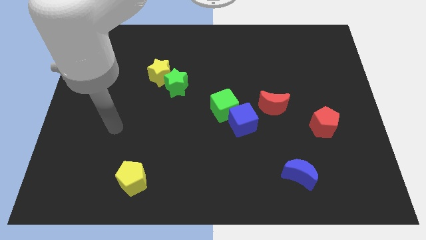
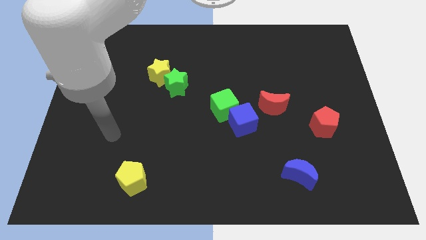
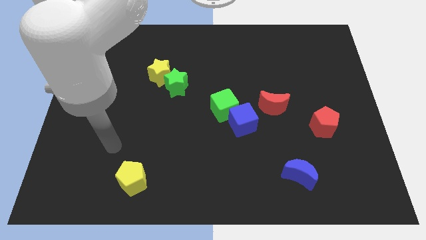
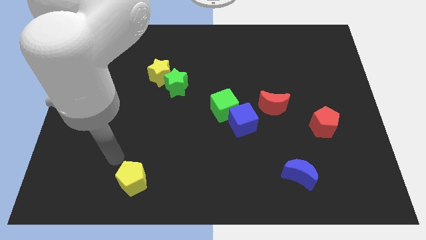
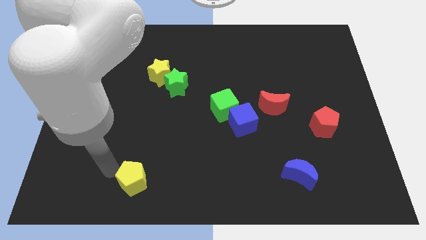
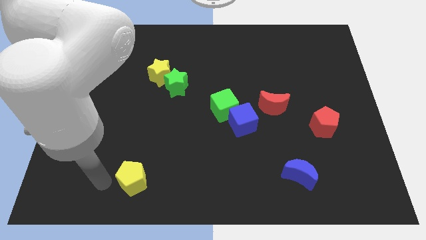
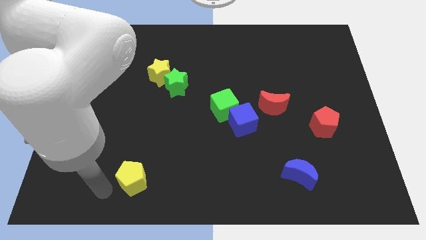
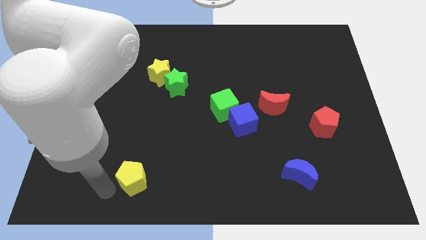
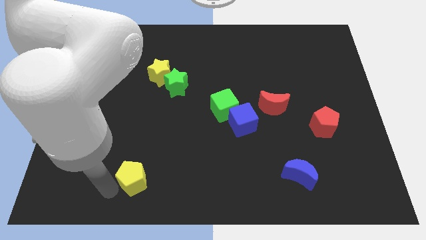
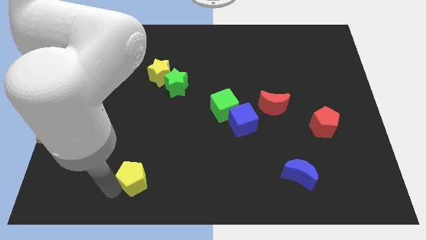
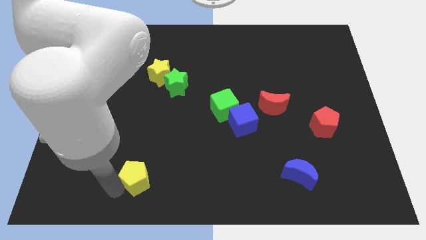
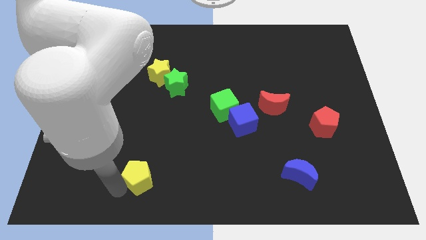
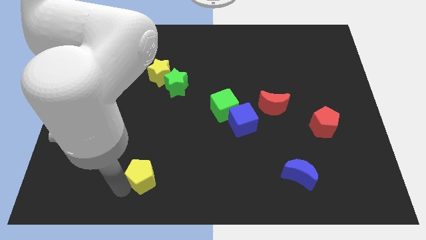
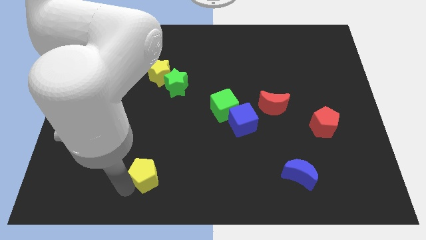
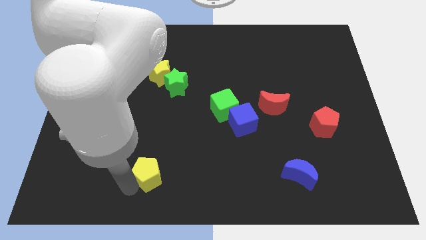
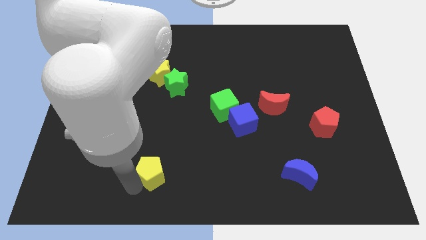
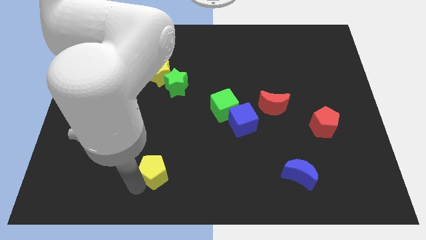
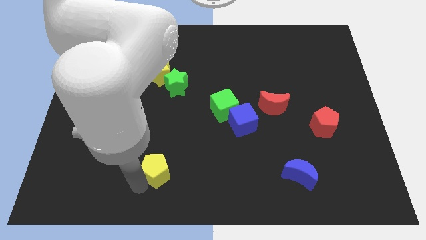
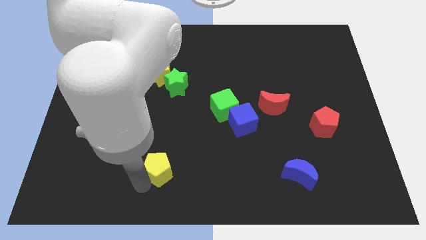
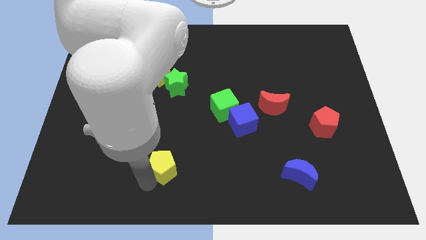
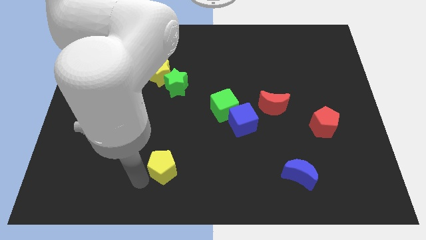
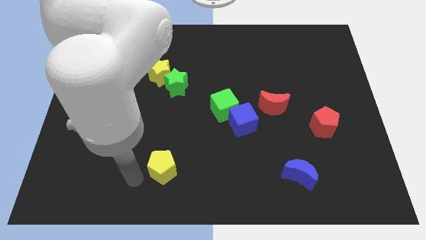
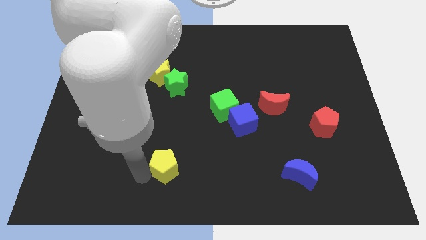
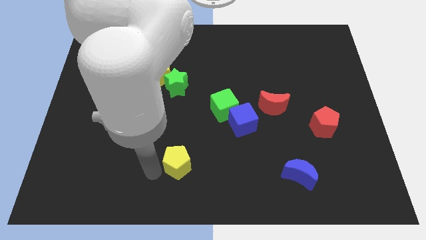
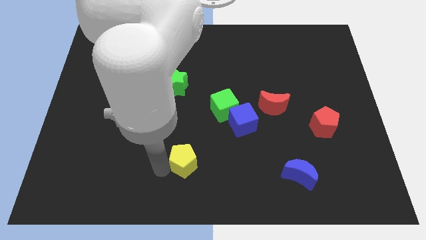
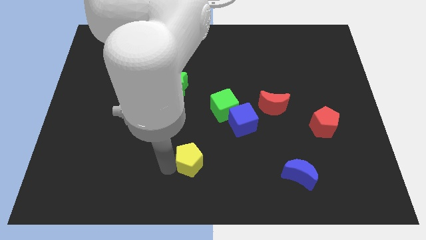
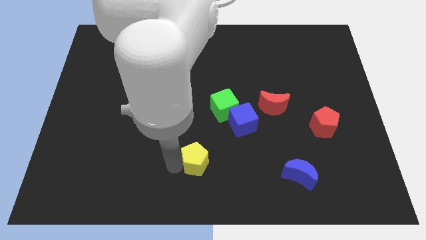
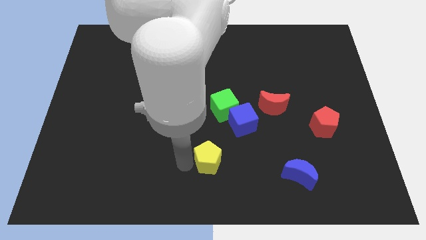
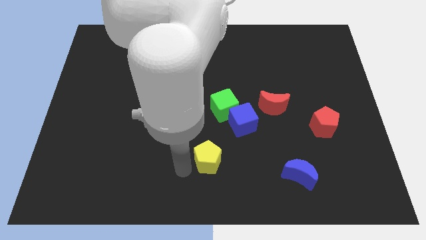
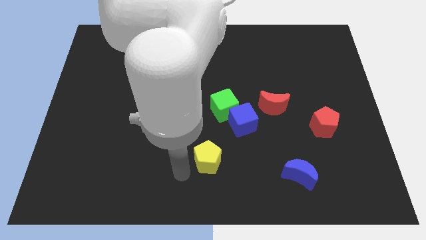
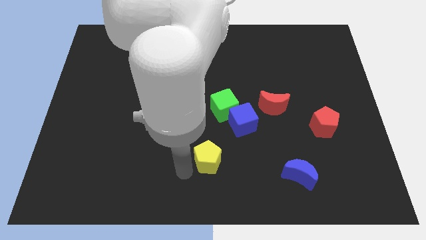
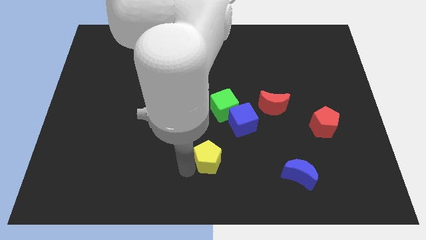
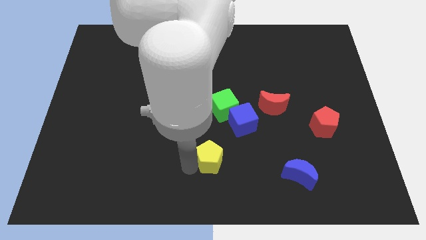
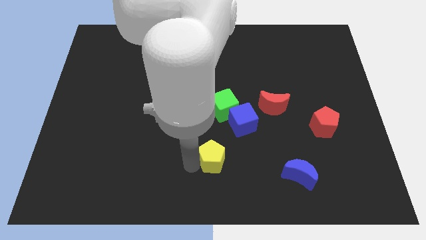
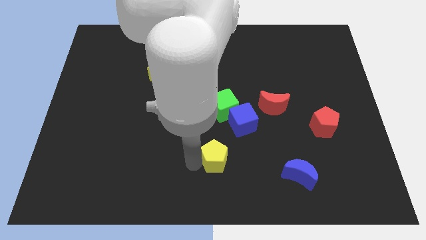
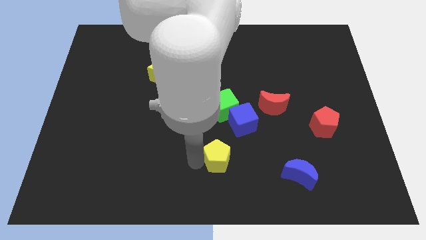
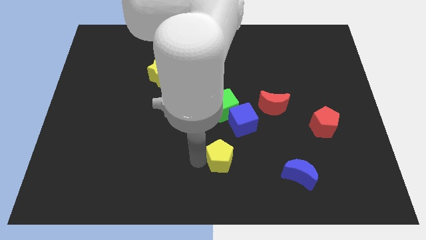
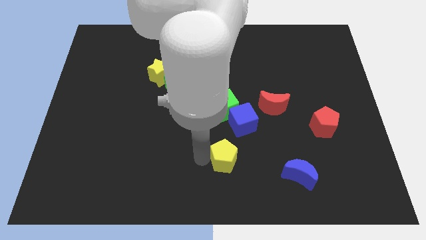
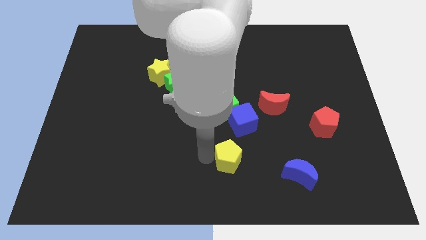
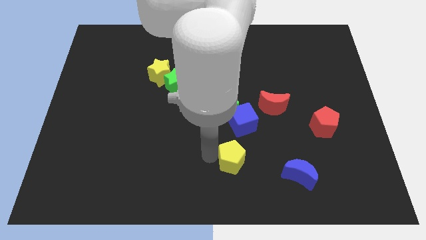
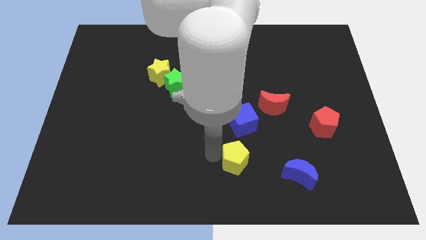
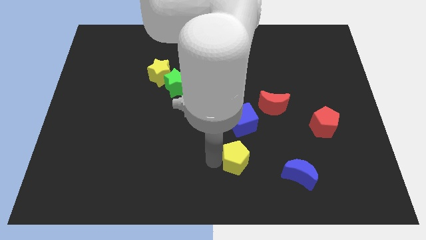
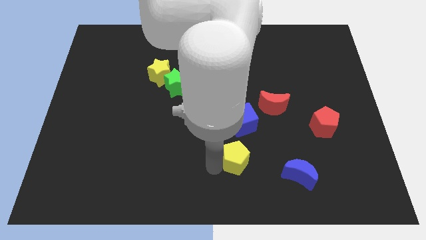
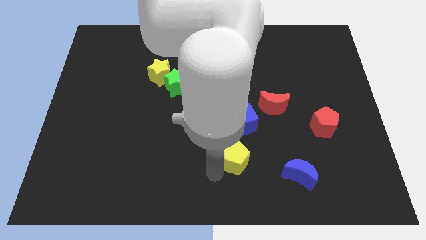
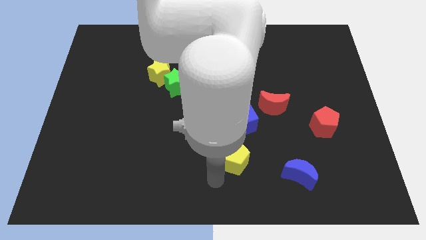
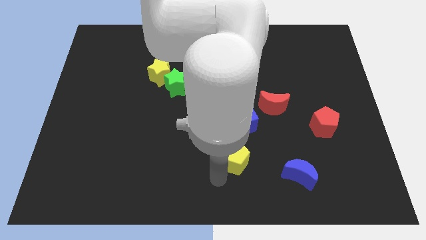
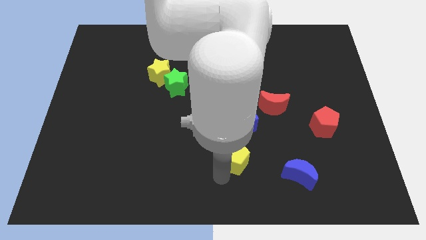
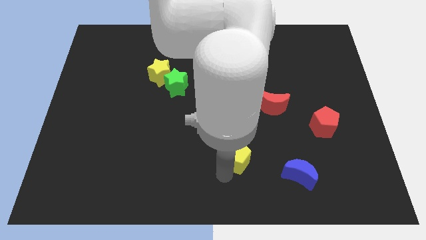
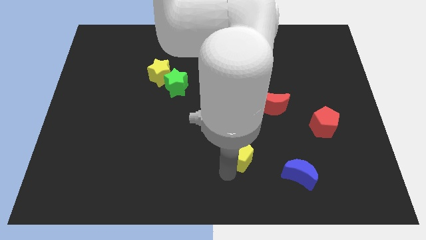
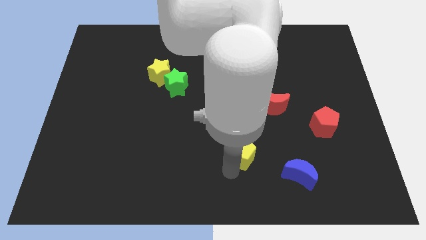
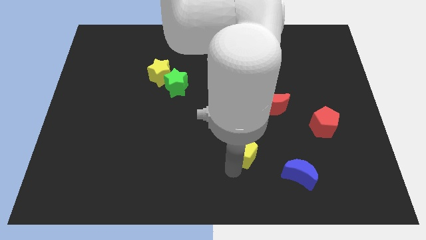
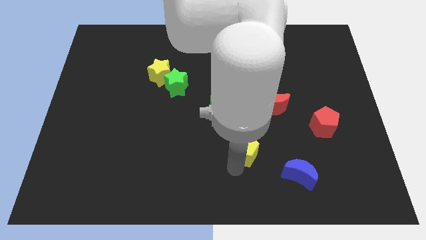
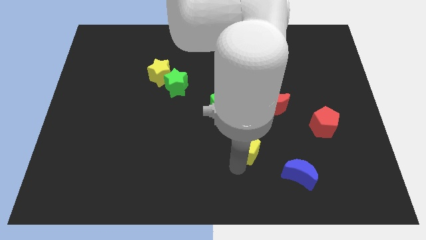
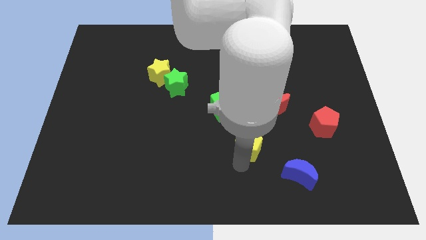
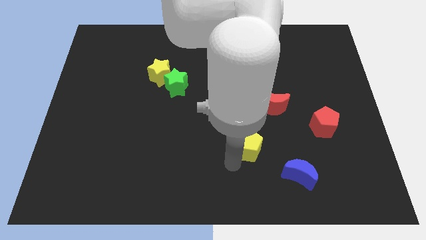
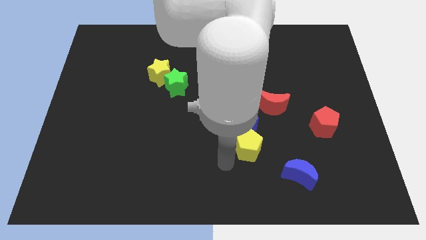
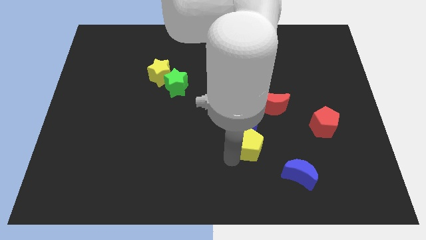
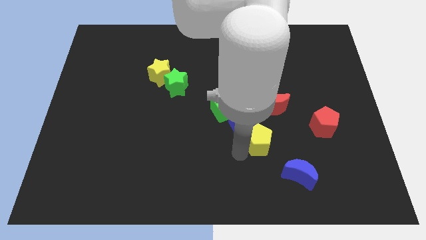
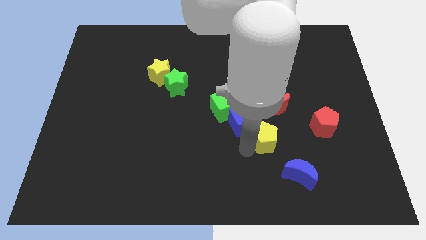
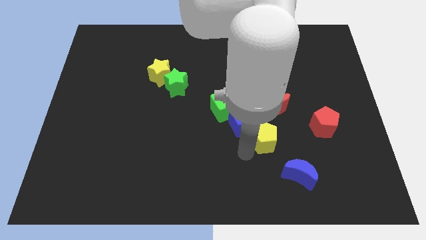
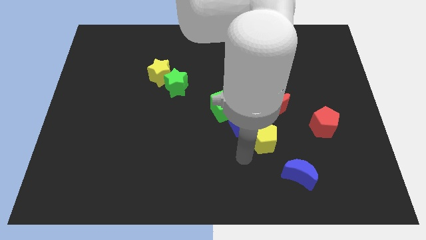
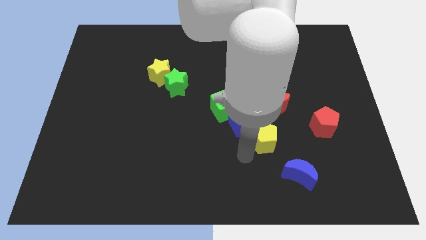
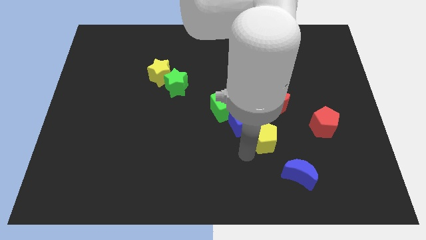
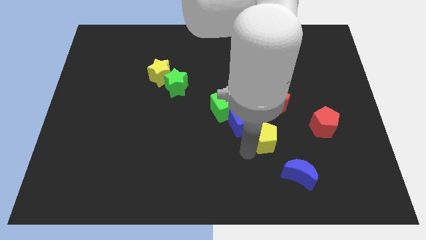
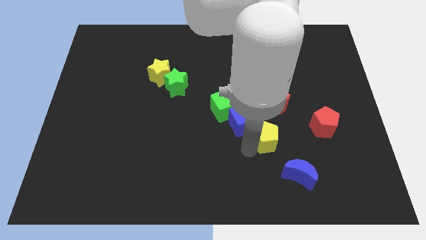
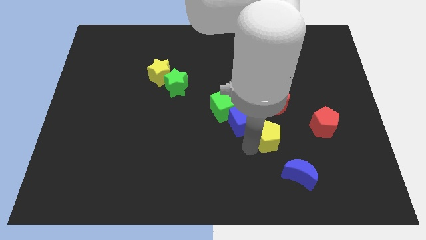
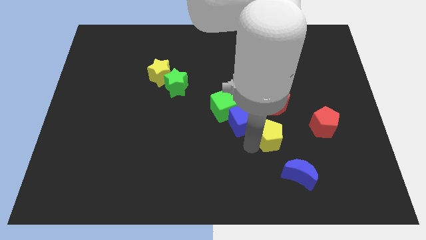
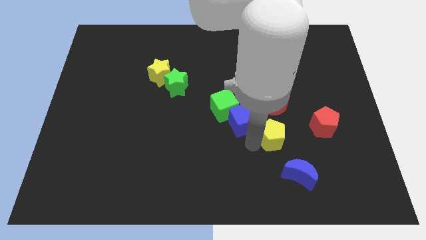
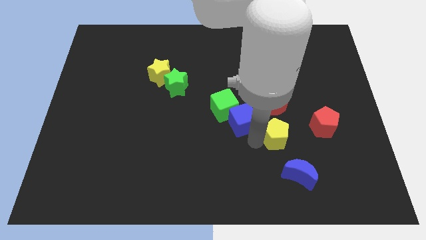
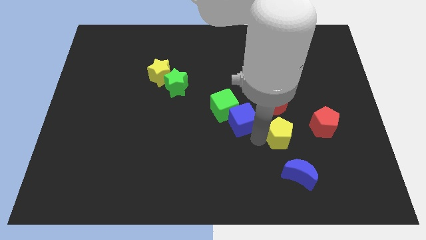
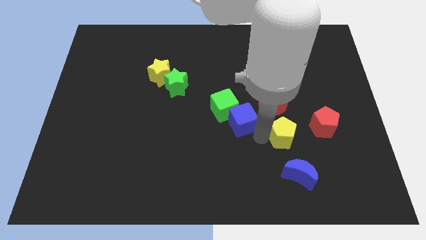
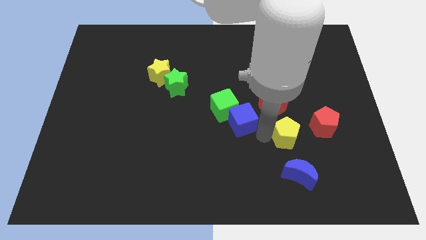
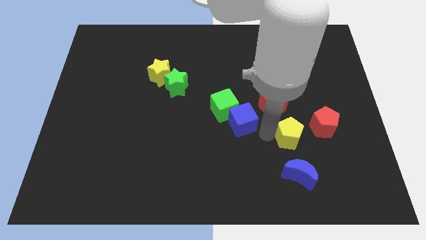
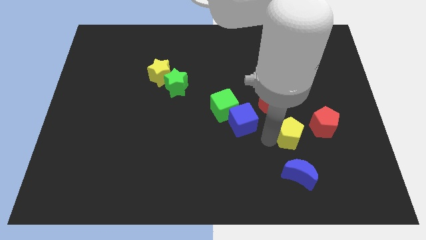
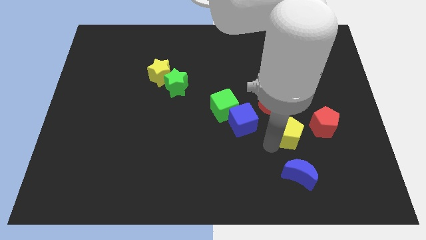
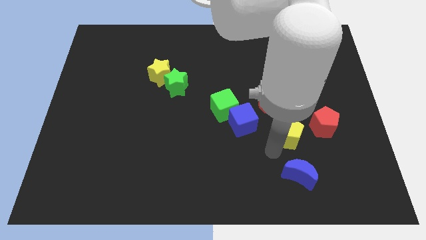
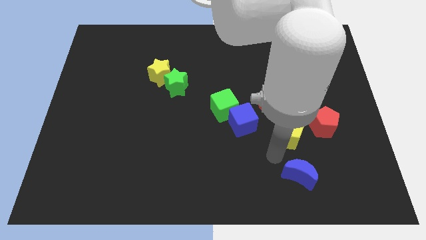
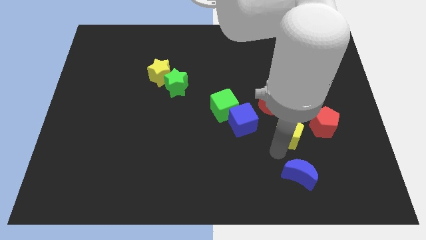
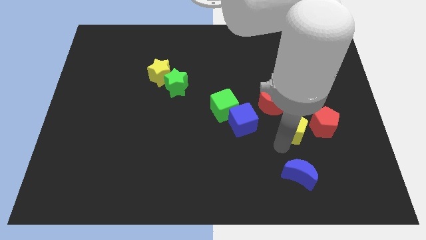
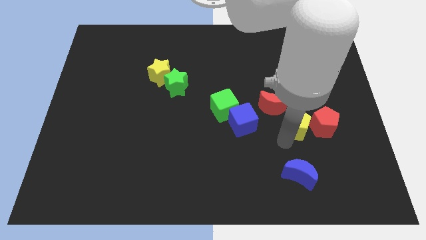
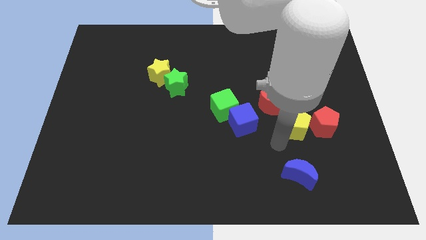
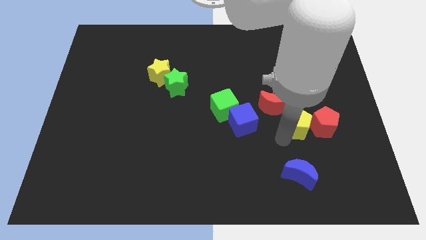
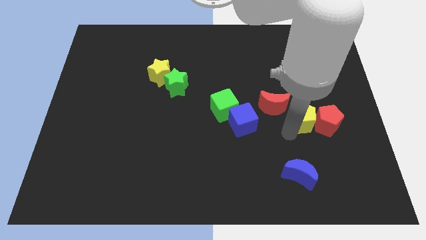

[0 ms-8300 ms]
push the yellow pentagon to the right side of the red moon
